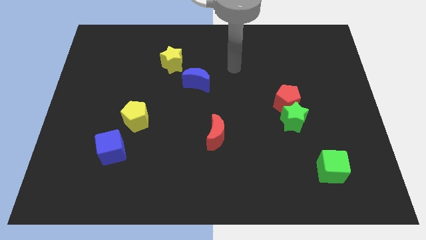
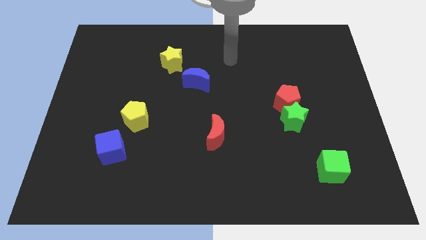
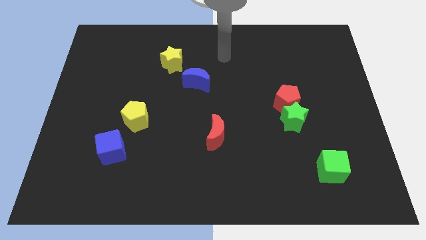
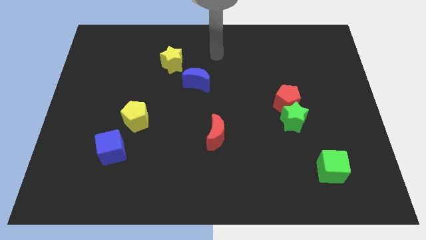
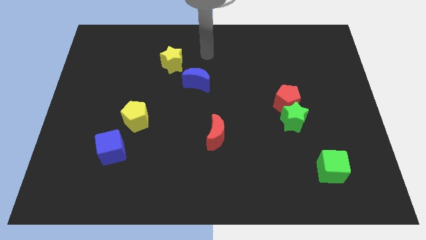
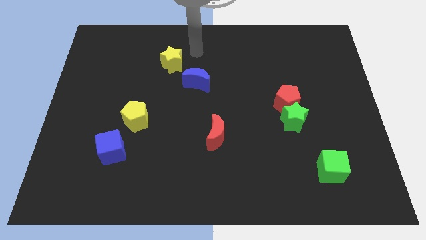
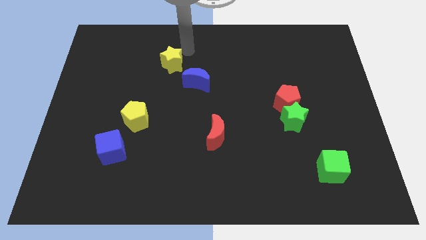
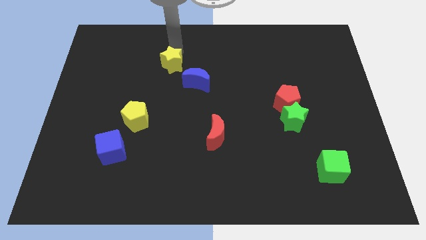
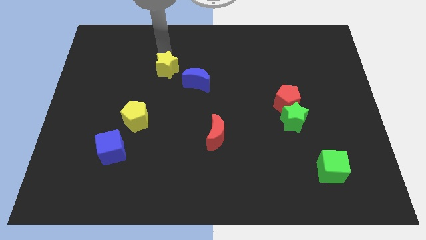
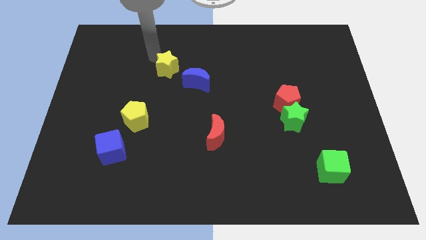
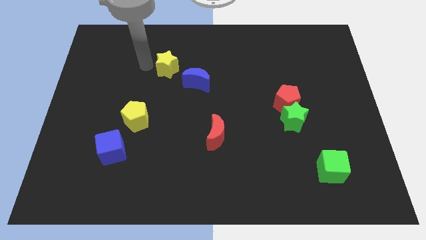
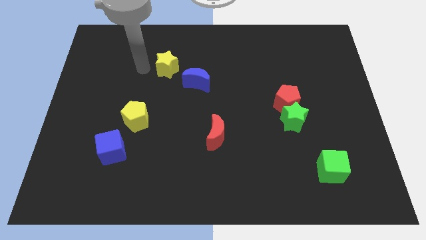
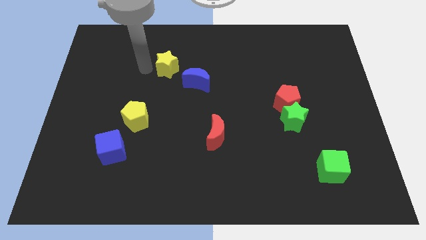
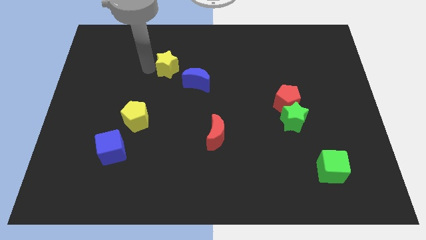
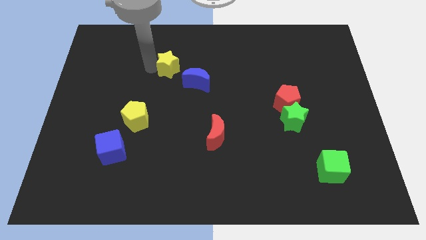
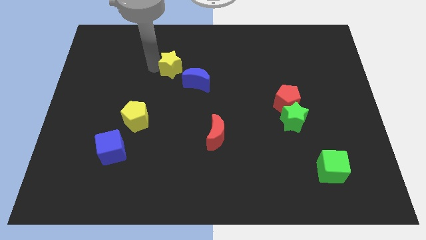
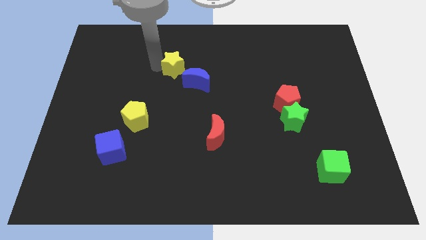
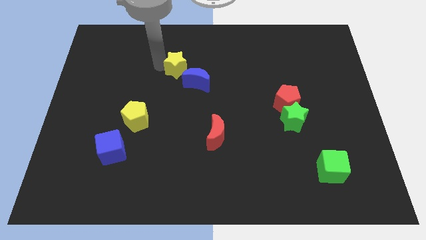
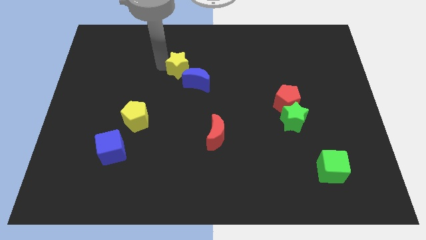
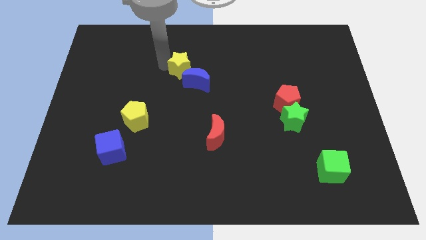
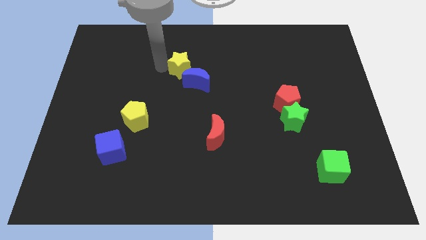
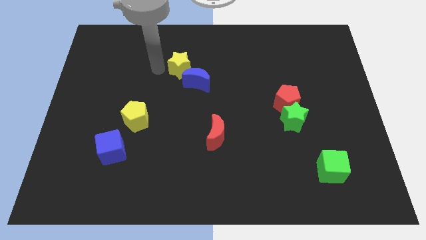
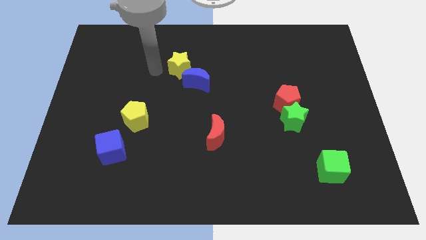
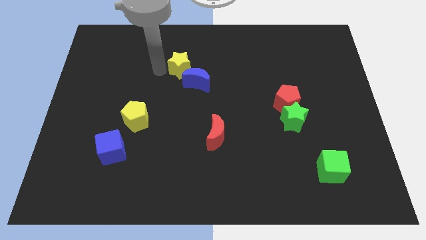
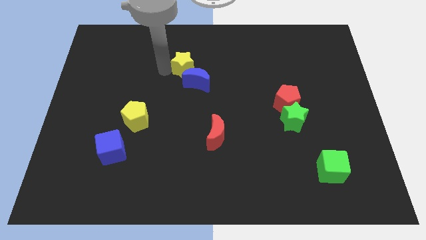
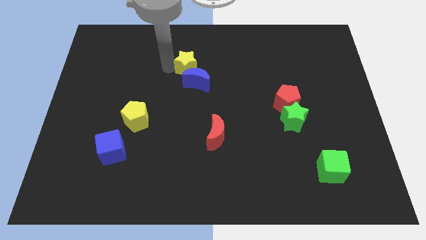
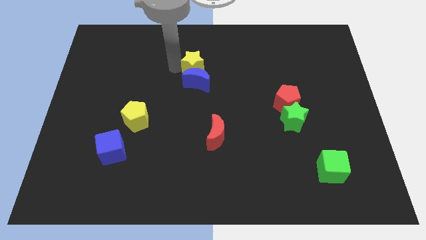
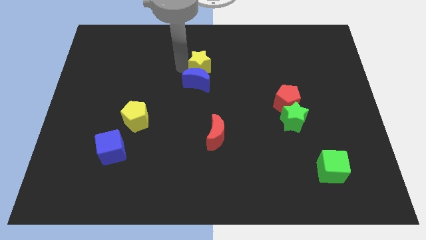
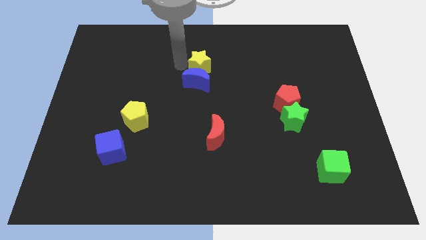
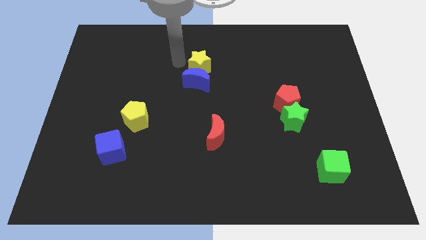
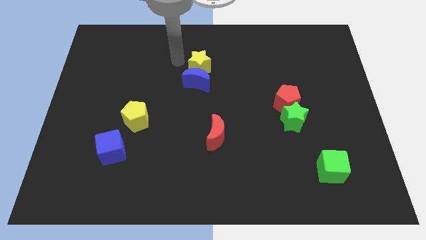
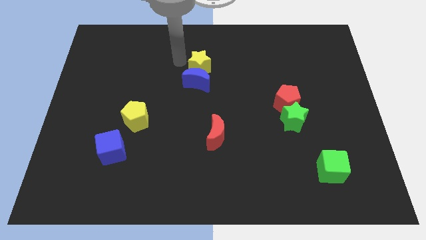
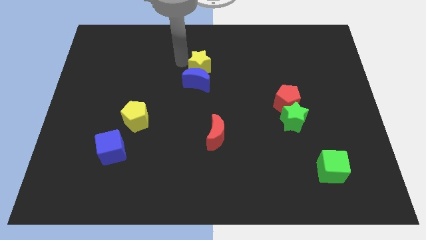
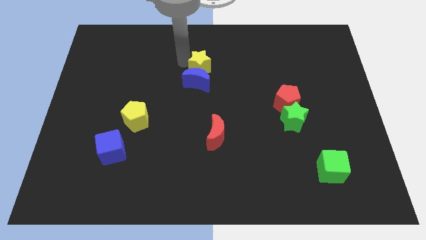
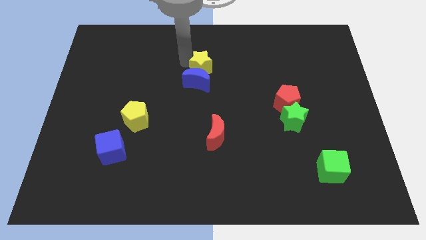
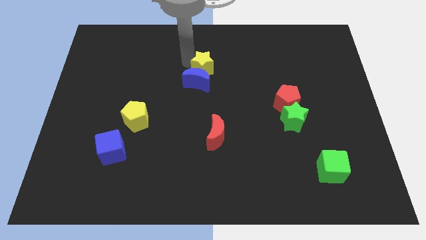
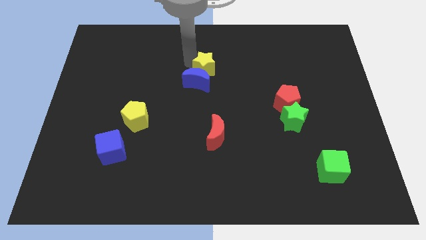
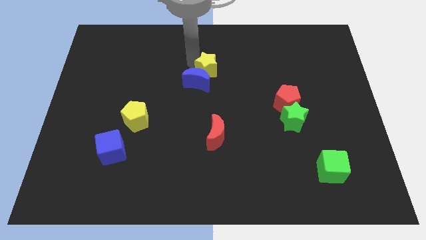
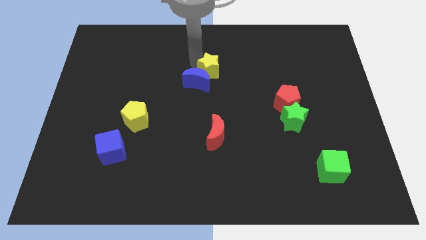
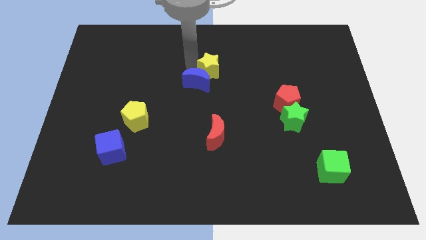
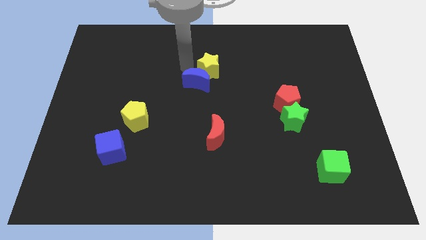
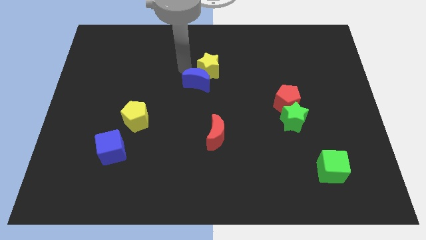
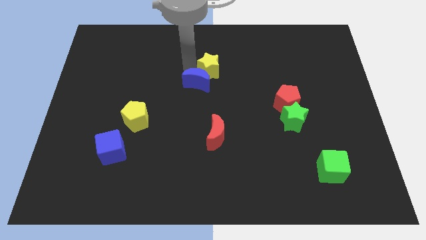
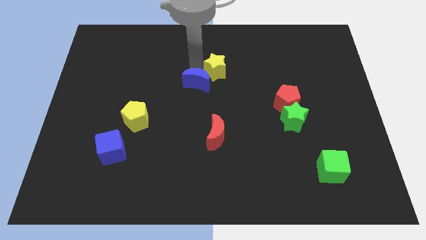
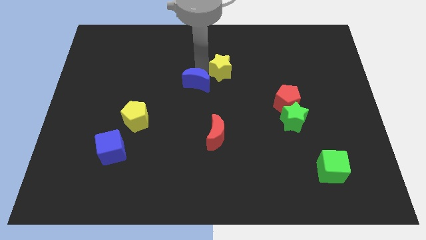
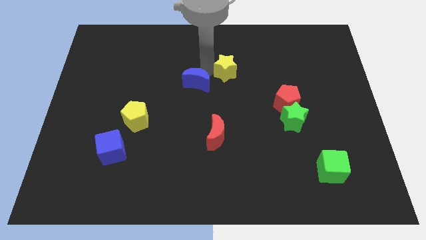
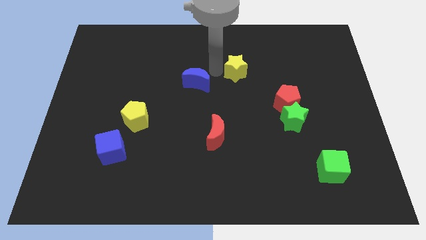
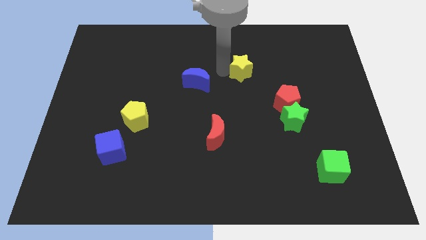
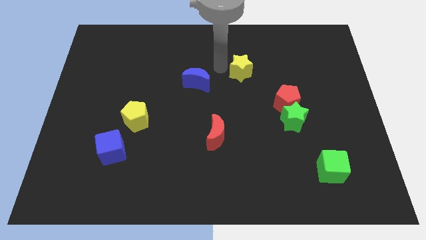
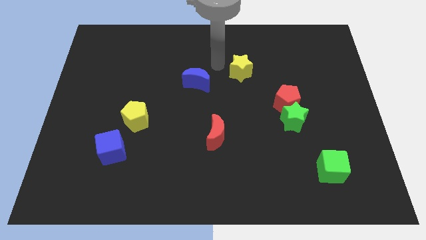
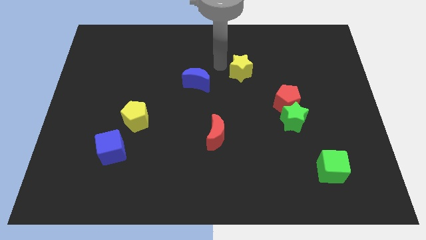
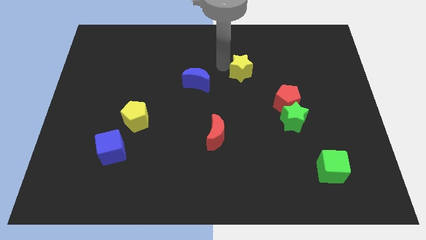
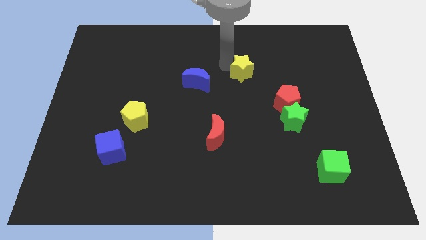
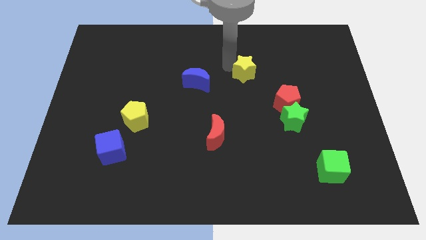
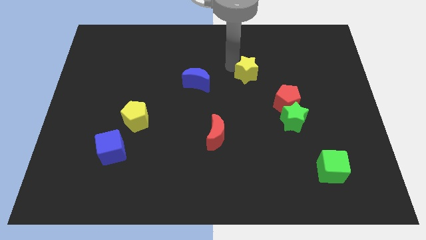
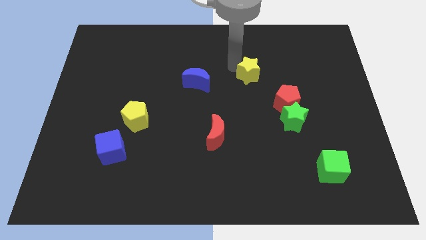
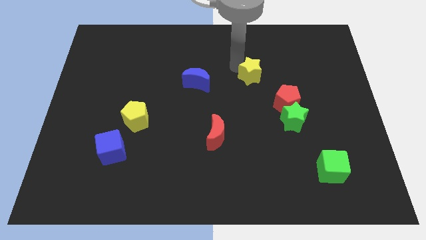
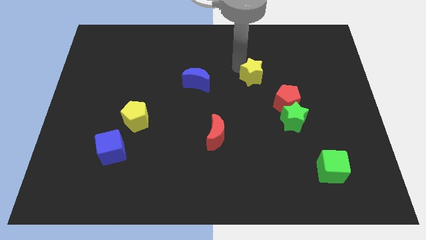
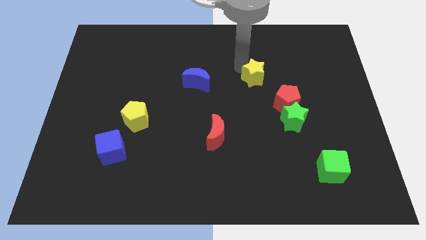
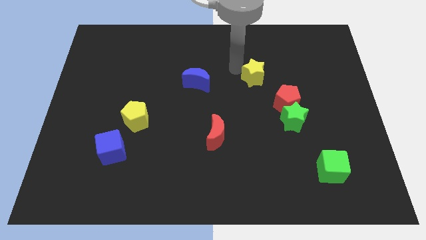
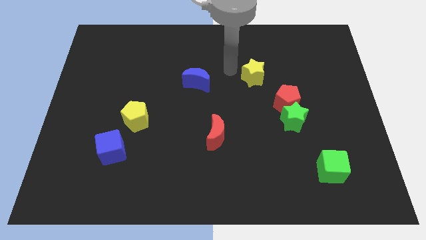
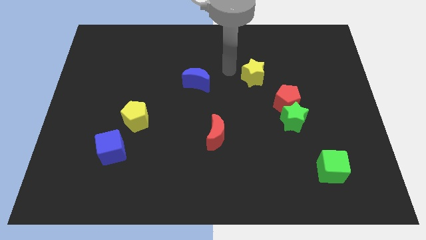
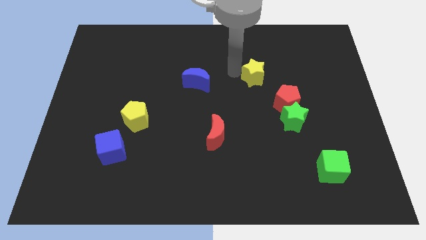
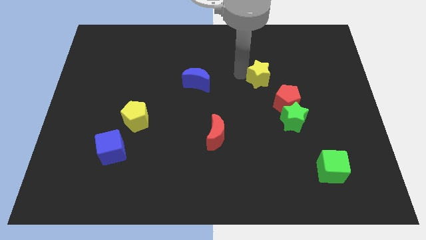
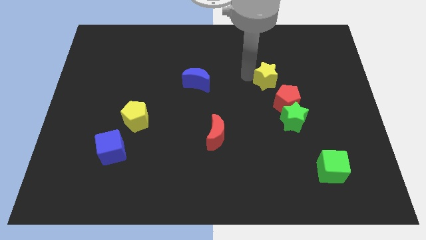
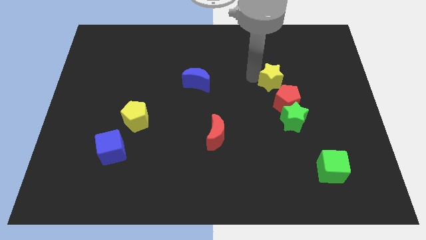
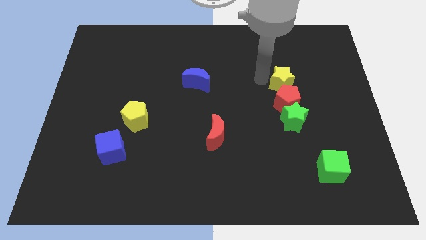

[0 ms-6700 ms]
put the yellow star to the top right of the red pentagon
